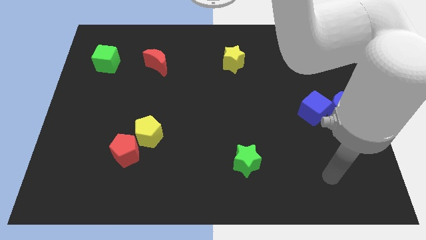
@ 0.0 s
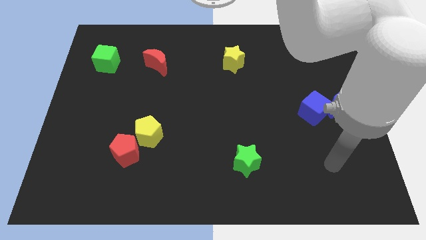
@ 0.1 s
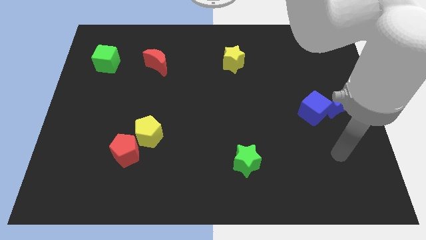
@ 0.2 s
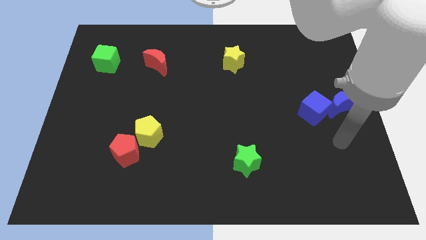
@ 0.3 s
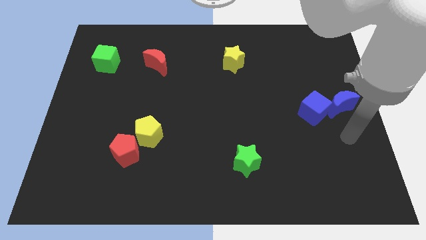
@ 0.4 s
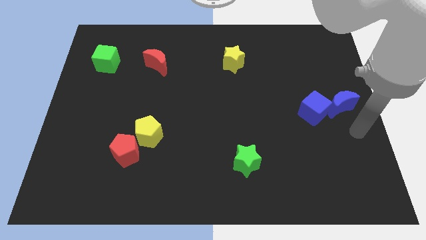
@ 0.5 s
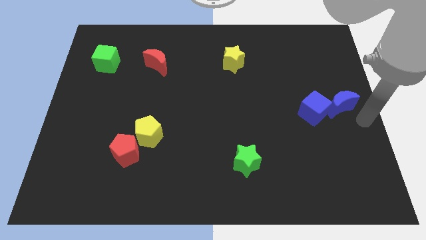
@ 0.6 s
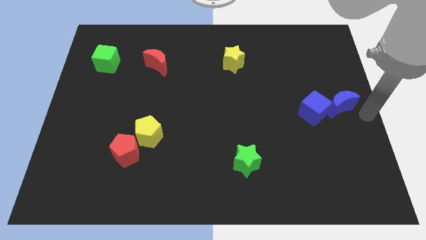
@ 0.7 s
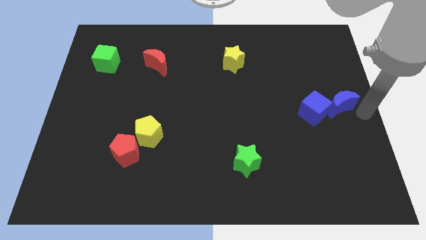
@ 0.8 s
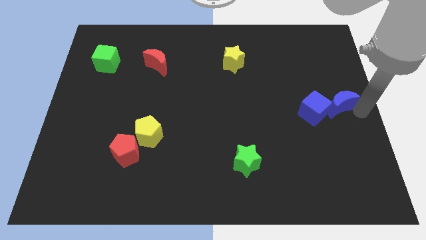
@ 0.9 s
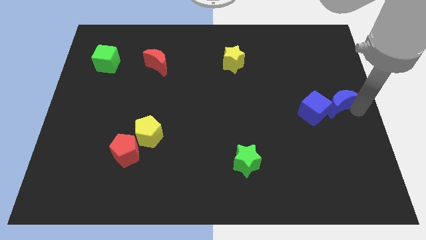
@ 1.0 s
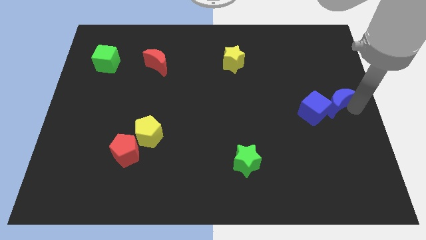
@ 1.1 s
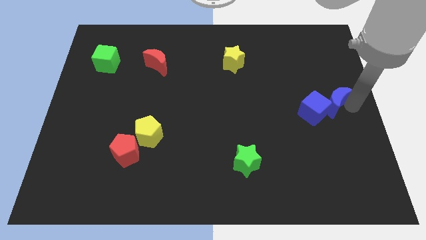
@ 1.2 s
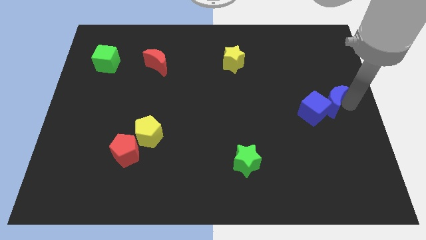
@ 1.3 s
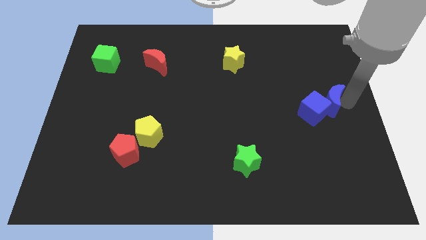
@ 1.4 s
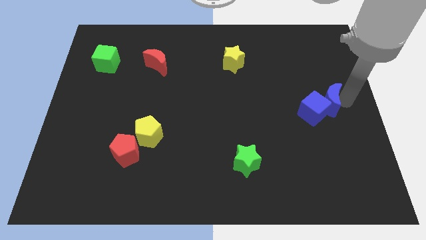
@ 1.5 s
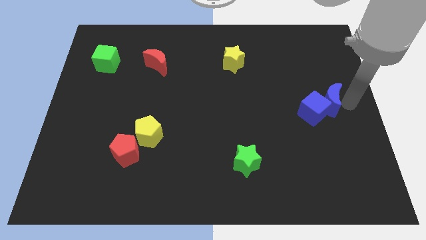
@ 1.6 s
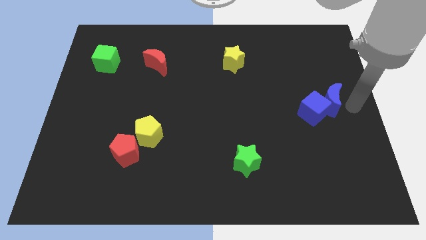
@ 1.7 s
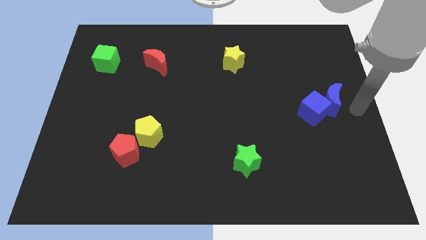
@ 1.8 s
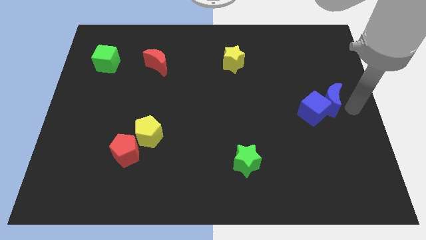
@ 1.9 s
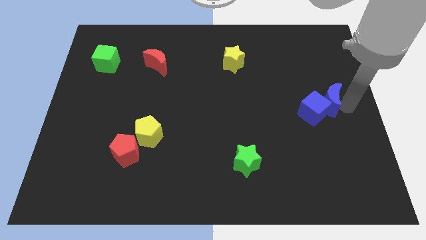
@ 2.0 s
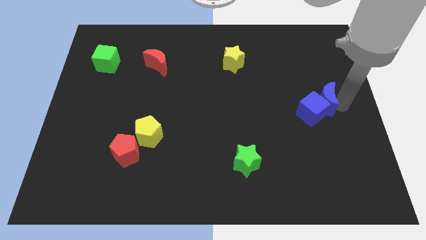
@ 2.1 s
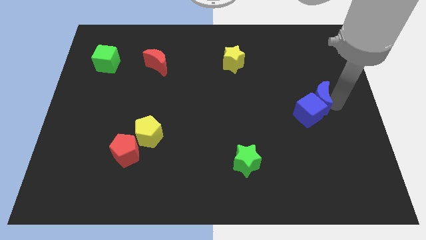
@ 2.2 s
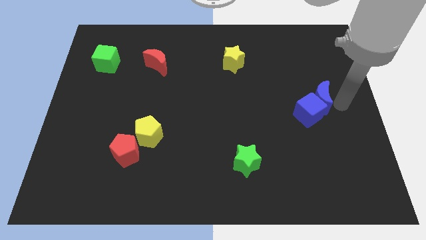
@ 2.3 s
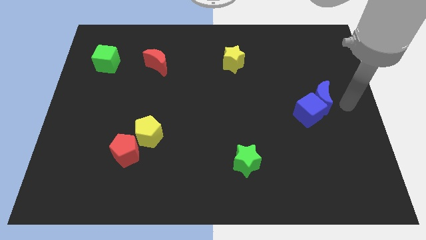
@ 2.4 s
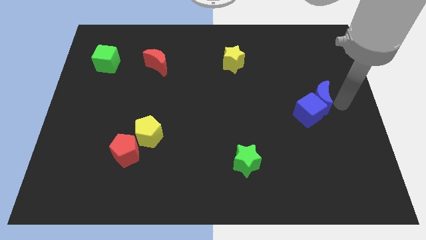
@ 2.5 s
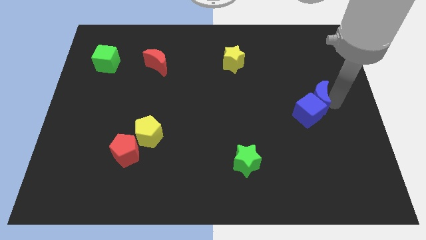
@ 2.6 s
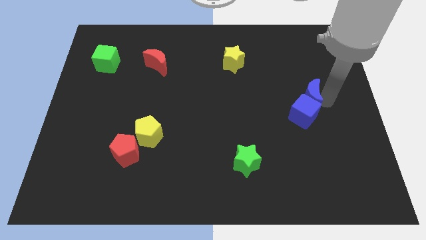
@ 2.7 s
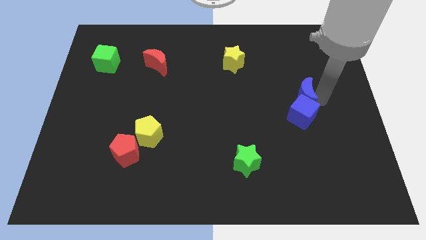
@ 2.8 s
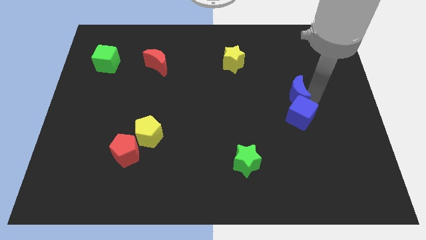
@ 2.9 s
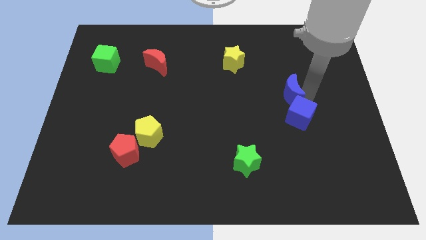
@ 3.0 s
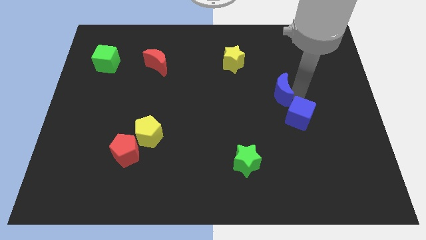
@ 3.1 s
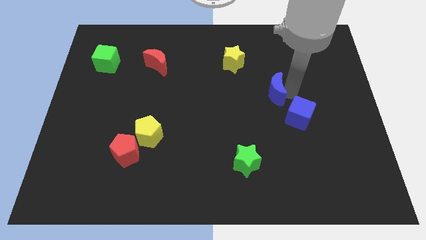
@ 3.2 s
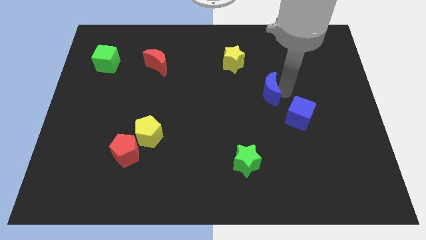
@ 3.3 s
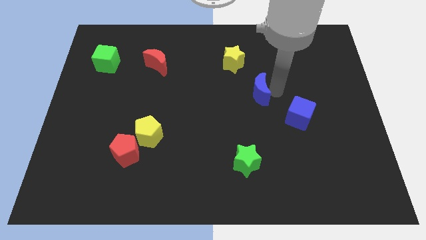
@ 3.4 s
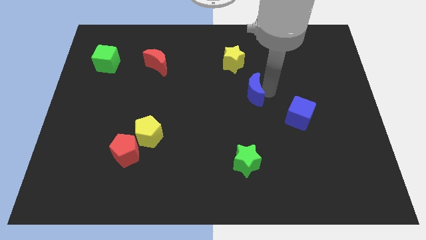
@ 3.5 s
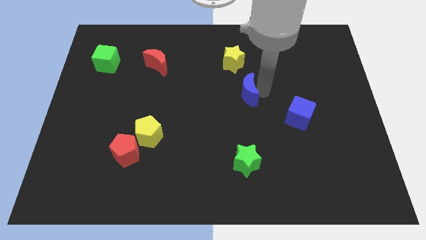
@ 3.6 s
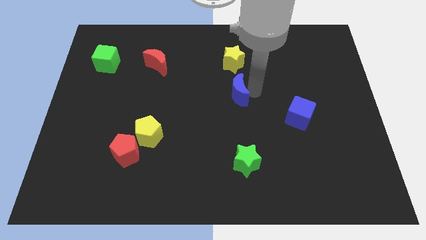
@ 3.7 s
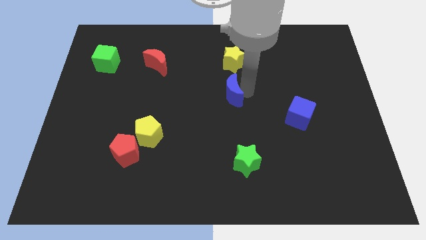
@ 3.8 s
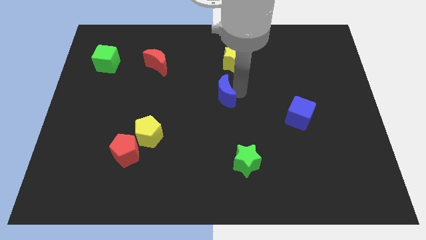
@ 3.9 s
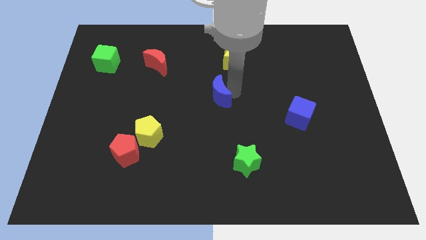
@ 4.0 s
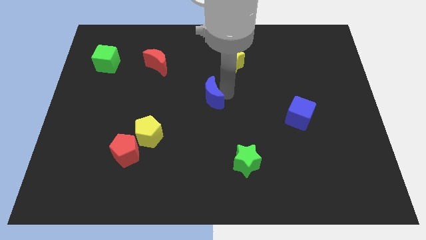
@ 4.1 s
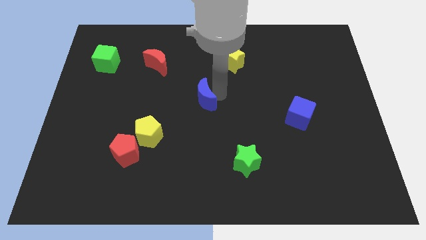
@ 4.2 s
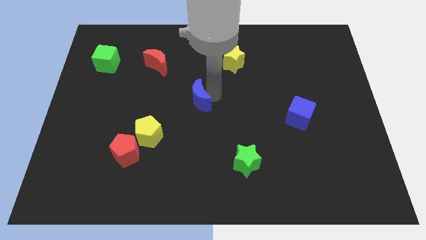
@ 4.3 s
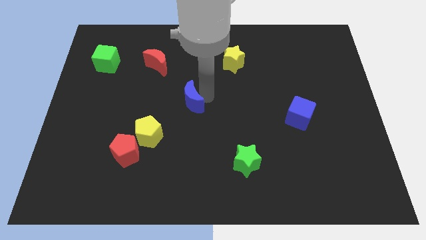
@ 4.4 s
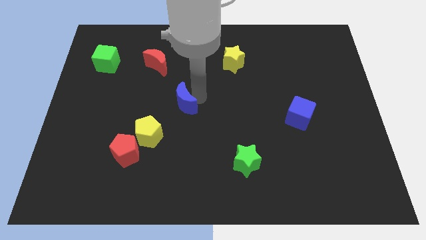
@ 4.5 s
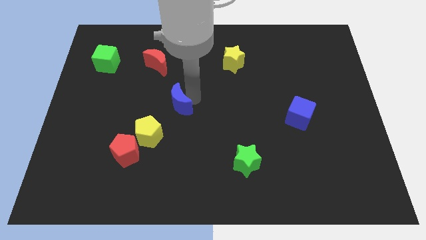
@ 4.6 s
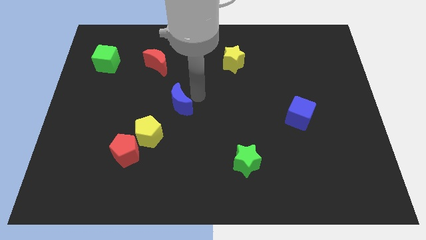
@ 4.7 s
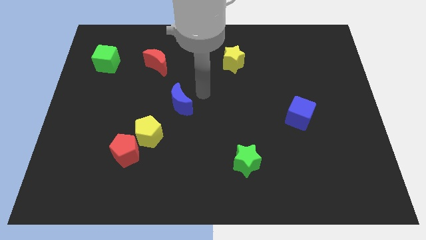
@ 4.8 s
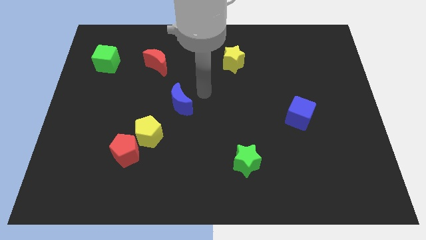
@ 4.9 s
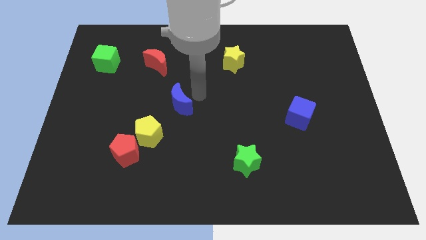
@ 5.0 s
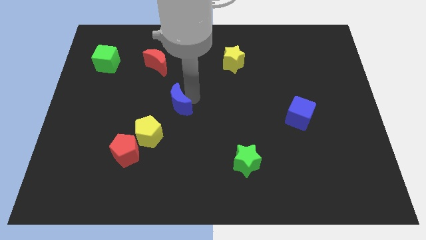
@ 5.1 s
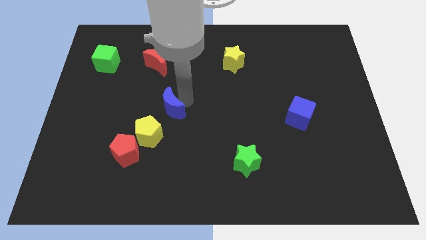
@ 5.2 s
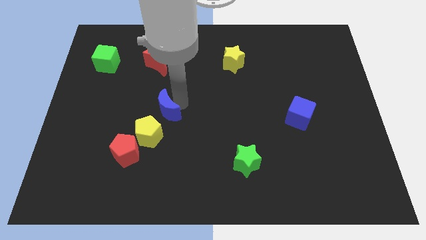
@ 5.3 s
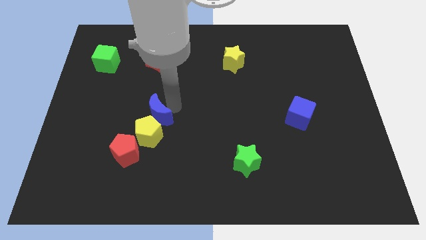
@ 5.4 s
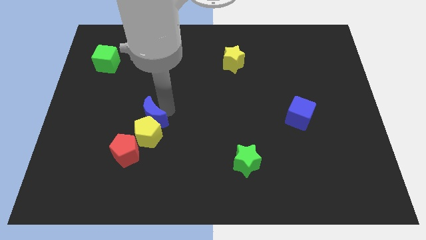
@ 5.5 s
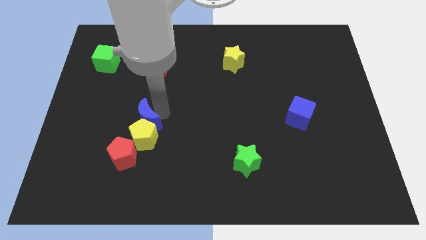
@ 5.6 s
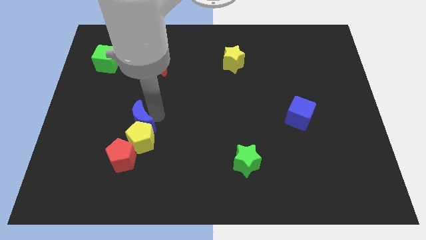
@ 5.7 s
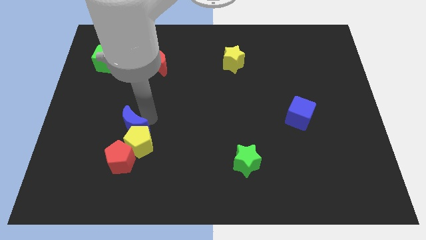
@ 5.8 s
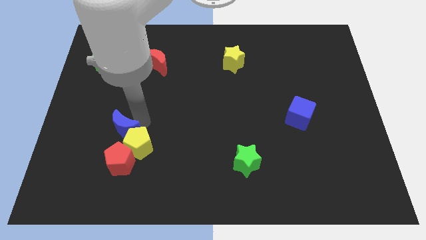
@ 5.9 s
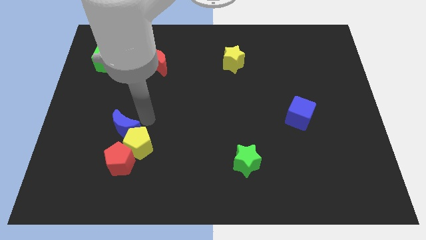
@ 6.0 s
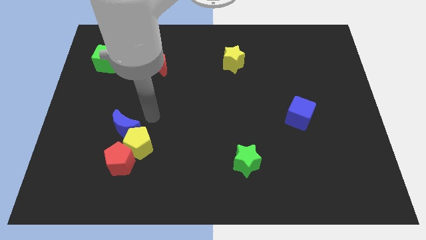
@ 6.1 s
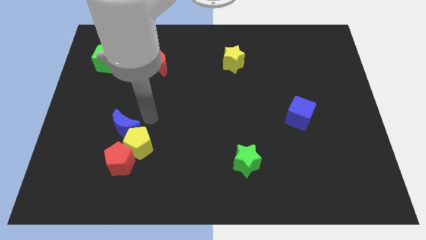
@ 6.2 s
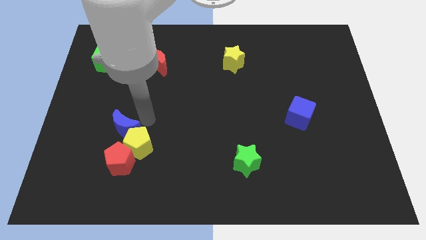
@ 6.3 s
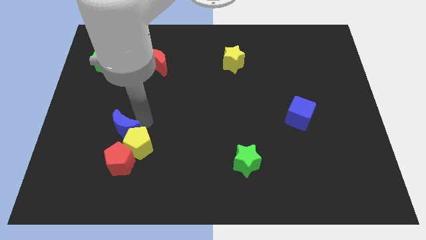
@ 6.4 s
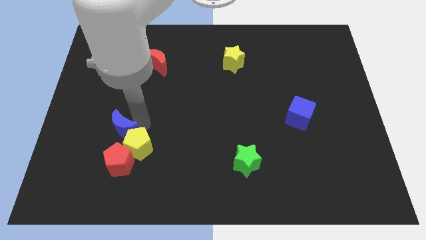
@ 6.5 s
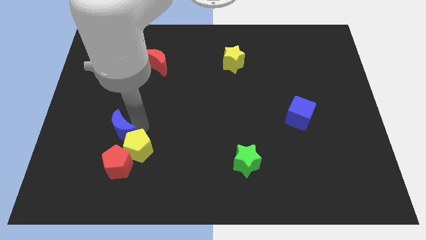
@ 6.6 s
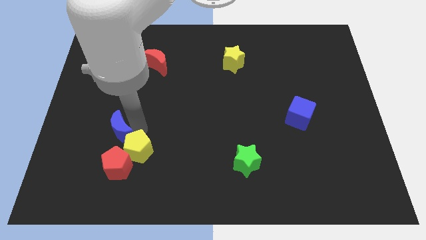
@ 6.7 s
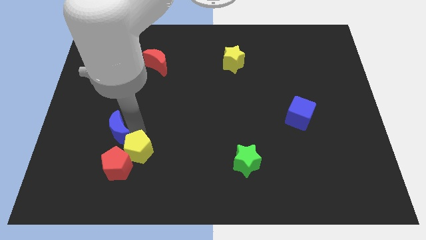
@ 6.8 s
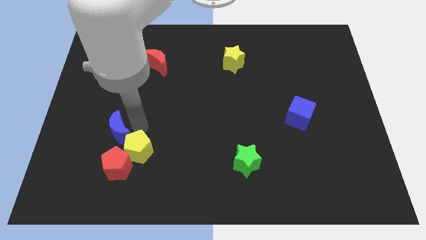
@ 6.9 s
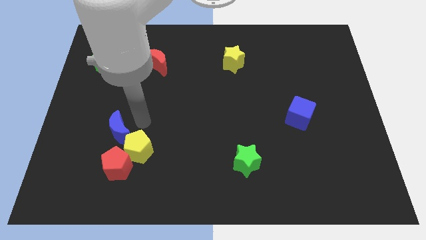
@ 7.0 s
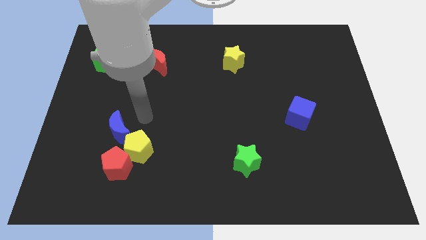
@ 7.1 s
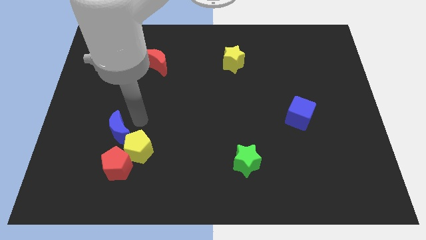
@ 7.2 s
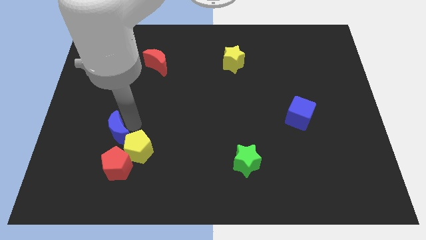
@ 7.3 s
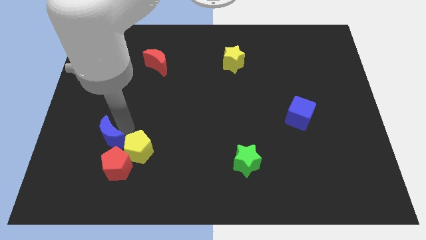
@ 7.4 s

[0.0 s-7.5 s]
push the blue moon to the top left side of the red pentagon
